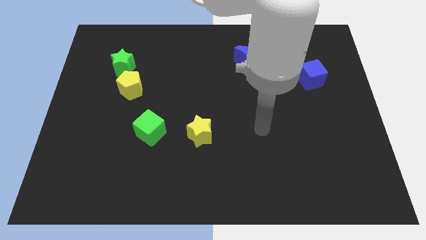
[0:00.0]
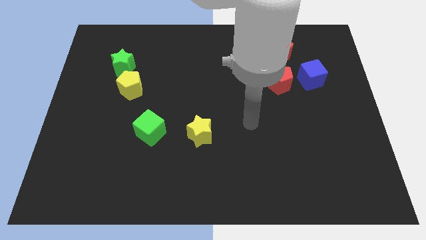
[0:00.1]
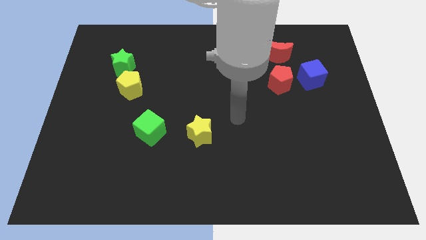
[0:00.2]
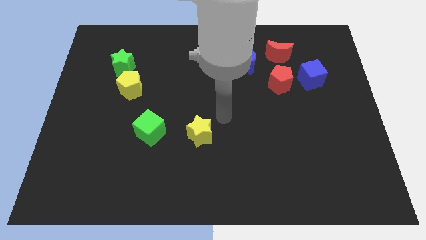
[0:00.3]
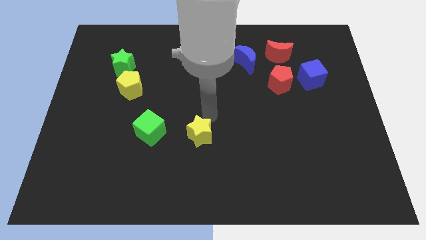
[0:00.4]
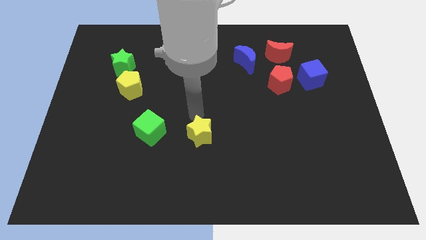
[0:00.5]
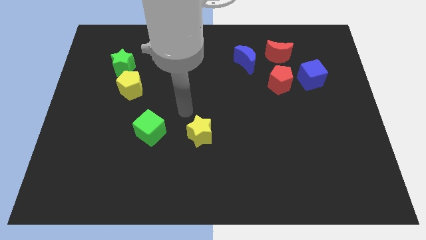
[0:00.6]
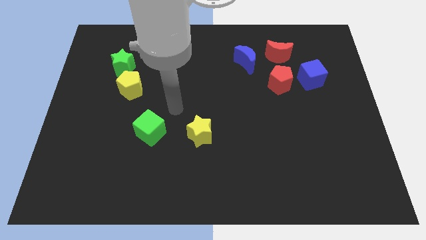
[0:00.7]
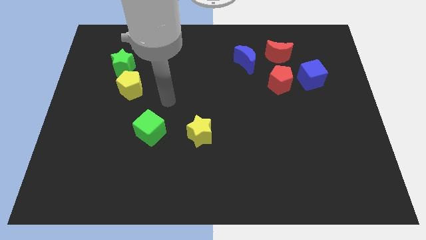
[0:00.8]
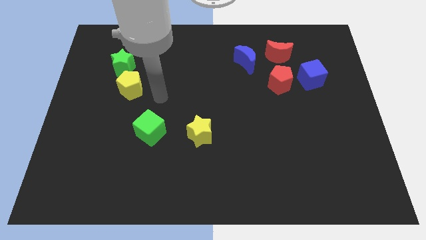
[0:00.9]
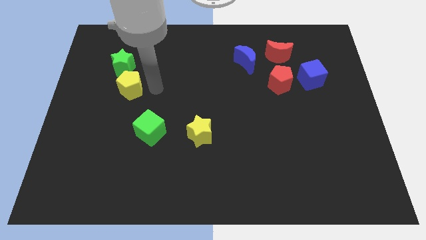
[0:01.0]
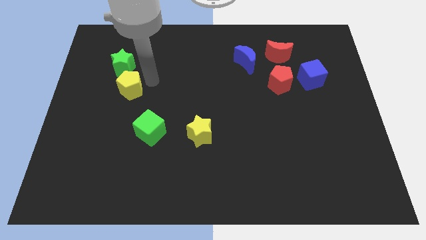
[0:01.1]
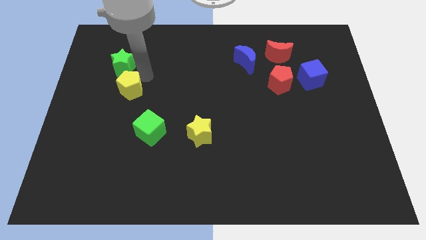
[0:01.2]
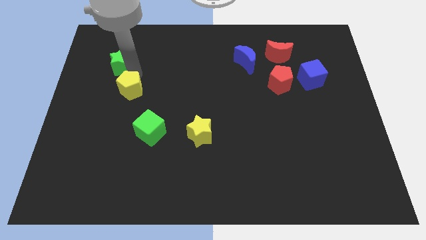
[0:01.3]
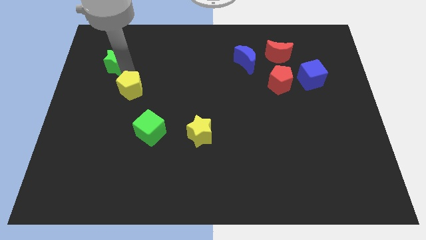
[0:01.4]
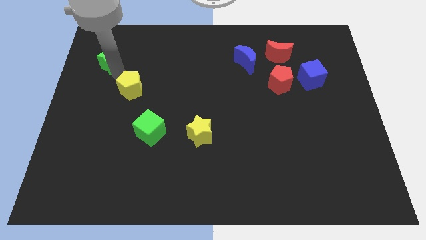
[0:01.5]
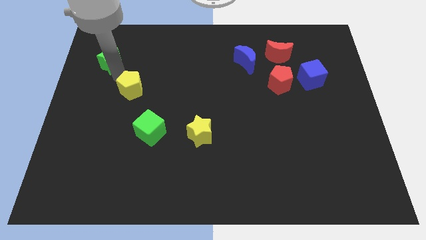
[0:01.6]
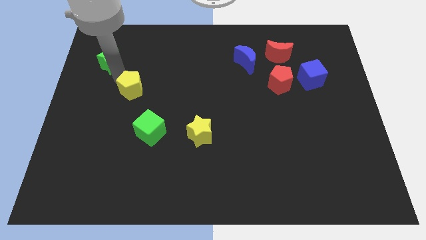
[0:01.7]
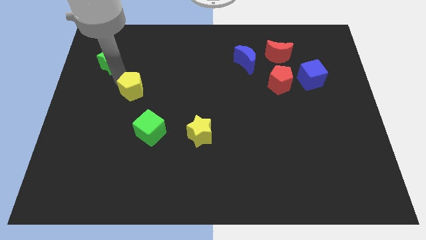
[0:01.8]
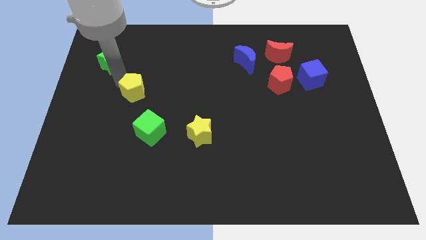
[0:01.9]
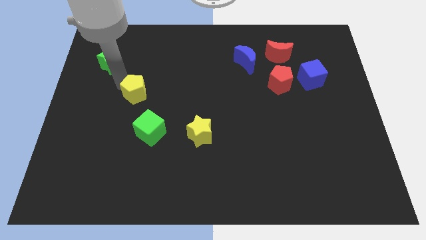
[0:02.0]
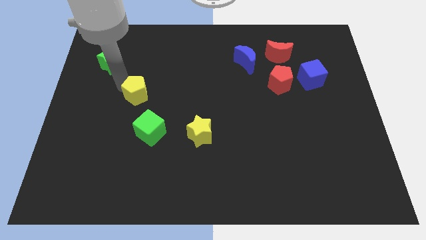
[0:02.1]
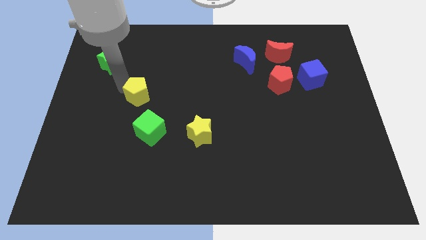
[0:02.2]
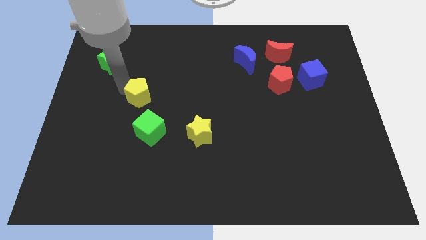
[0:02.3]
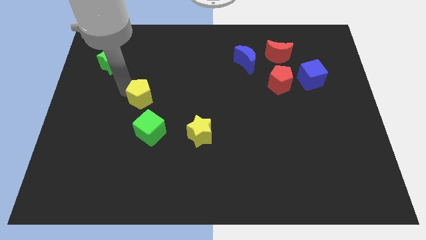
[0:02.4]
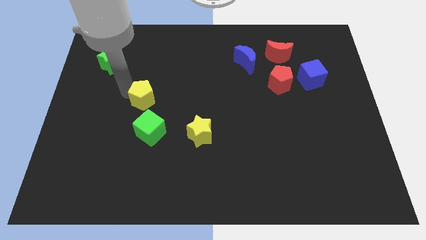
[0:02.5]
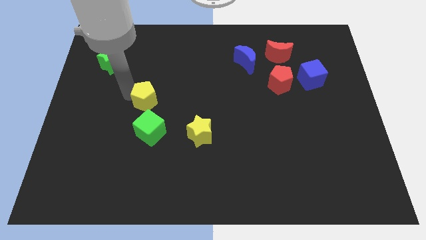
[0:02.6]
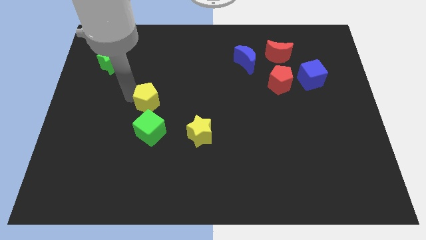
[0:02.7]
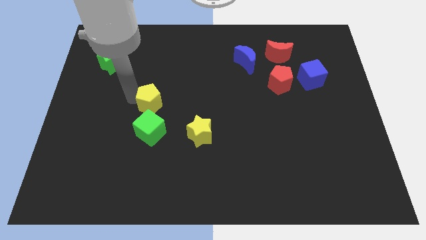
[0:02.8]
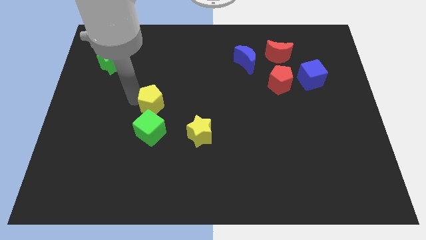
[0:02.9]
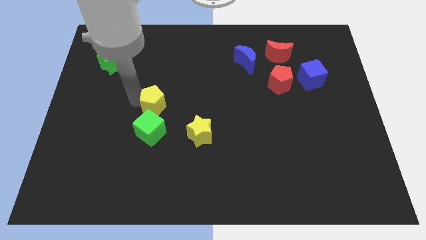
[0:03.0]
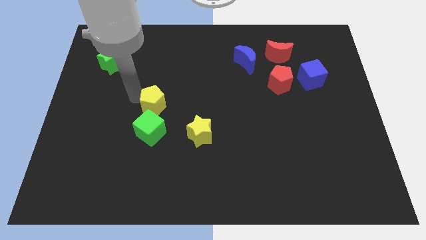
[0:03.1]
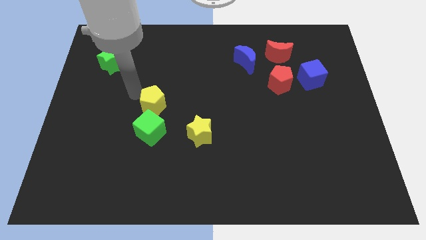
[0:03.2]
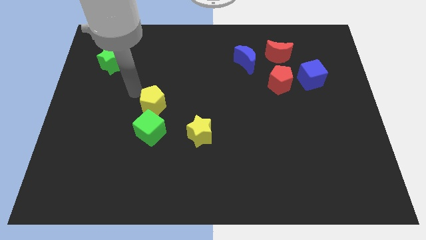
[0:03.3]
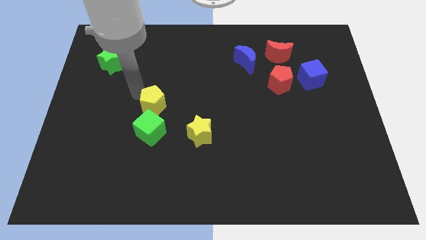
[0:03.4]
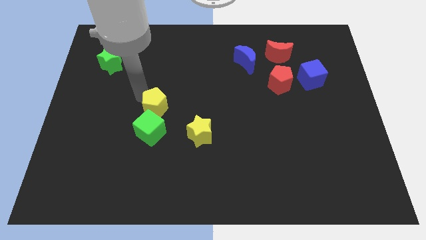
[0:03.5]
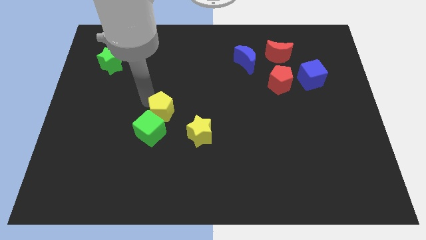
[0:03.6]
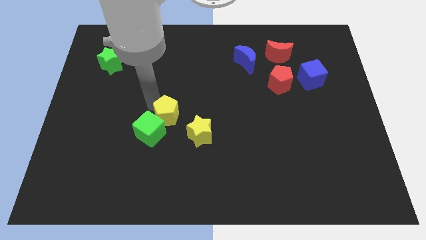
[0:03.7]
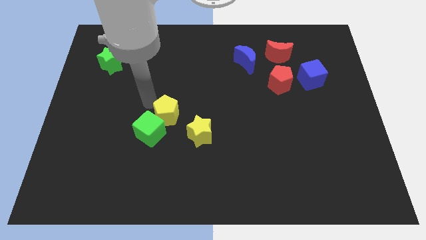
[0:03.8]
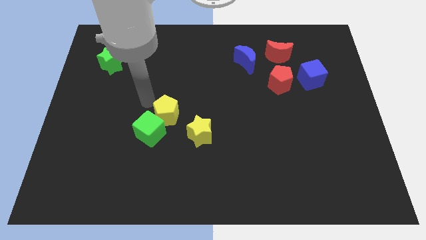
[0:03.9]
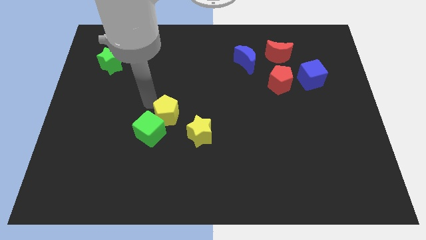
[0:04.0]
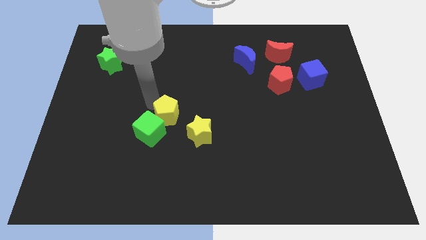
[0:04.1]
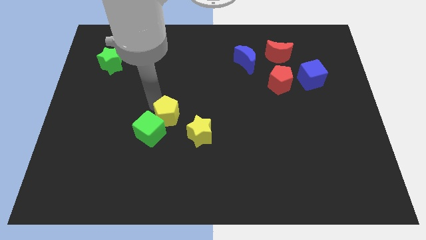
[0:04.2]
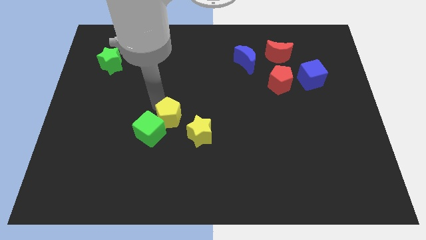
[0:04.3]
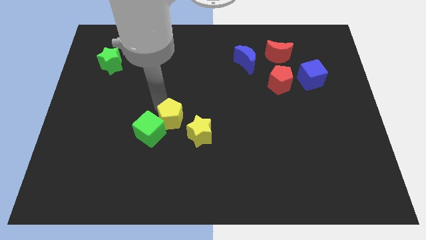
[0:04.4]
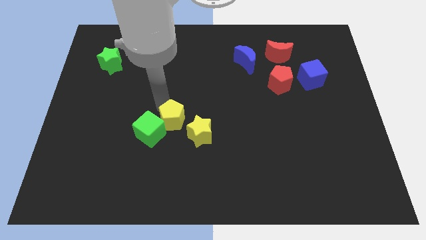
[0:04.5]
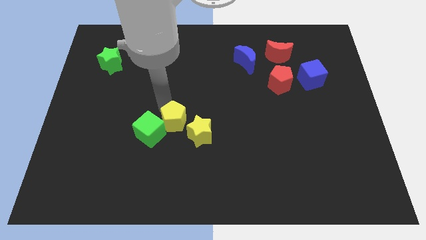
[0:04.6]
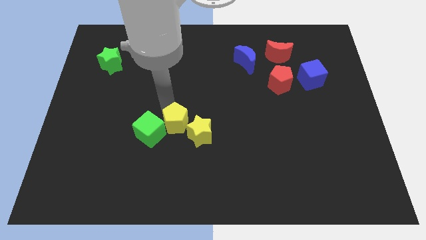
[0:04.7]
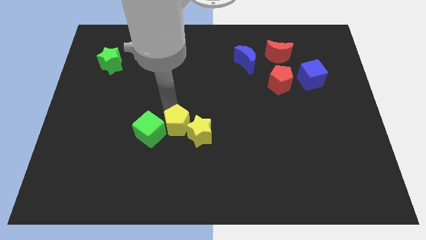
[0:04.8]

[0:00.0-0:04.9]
put the yellow pentagon to the yellow star

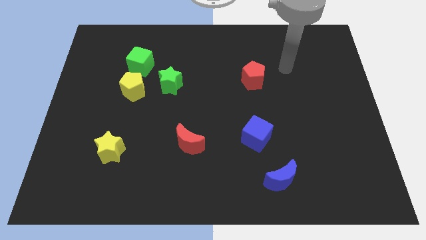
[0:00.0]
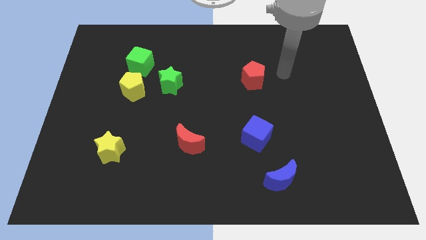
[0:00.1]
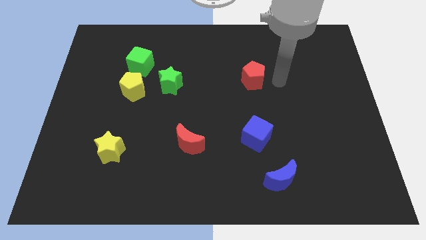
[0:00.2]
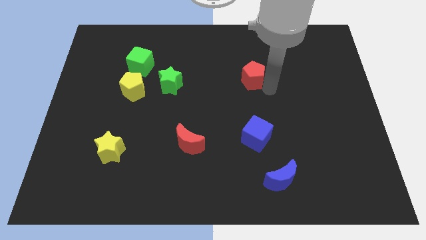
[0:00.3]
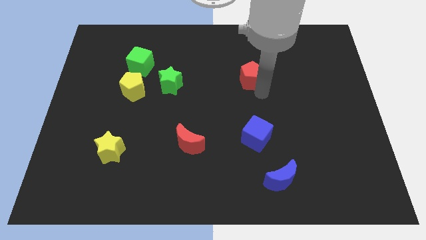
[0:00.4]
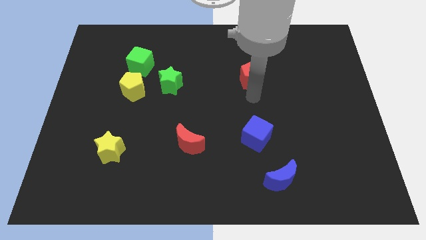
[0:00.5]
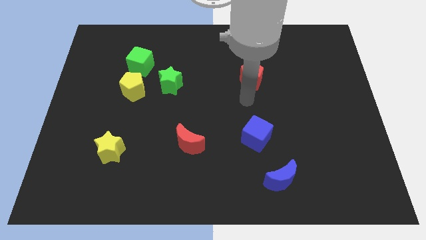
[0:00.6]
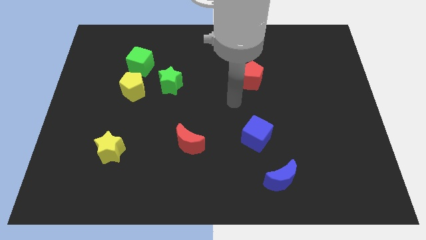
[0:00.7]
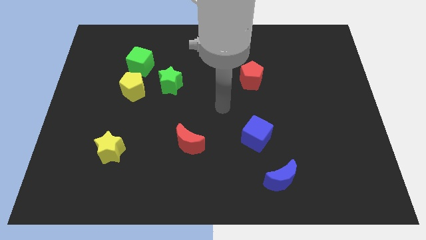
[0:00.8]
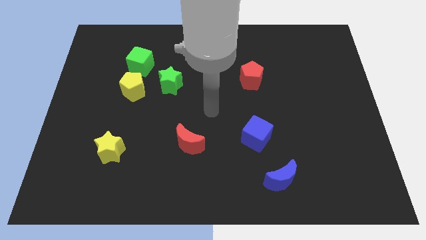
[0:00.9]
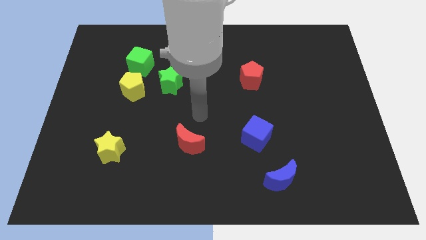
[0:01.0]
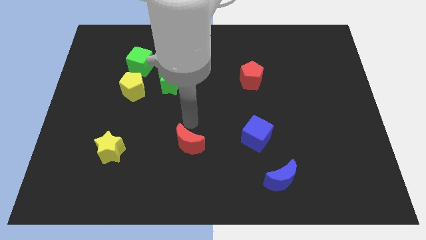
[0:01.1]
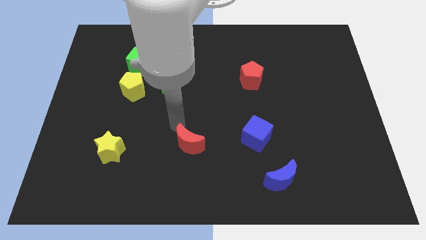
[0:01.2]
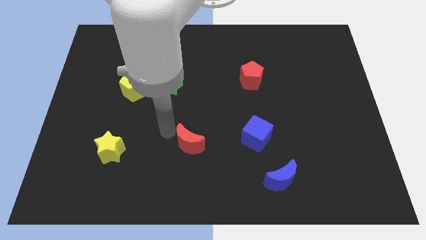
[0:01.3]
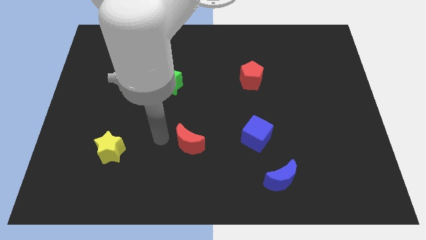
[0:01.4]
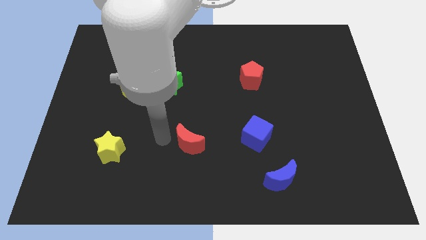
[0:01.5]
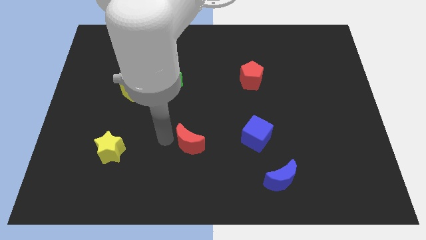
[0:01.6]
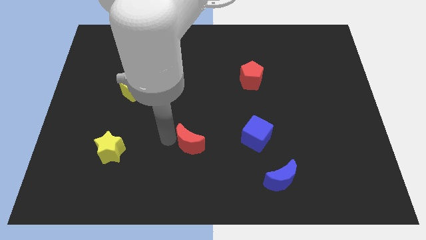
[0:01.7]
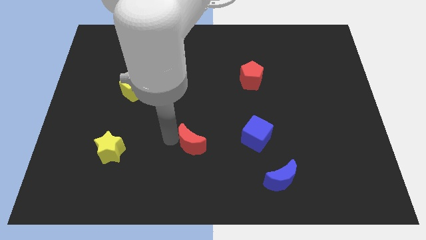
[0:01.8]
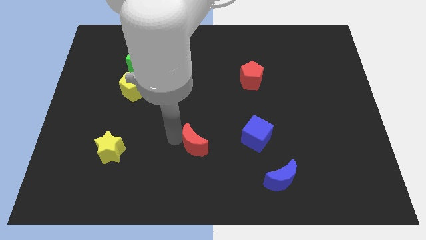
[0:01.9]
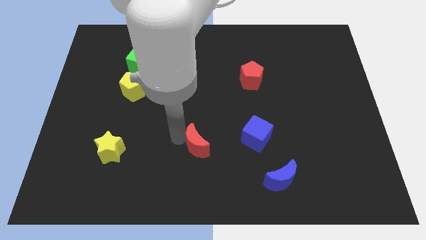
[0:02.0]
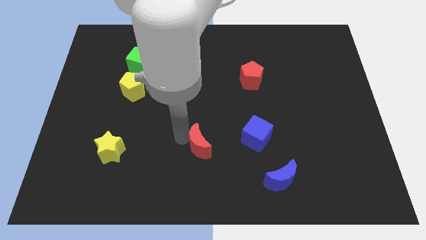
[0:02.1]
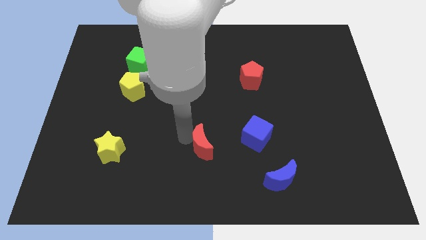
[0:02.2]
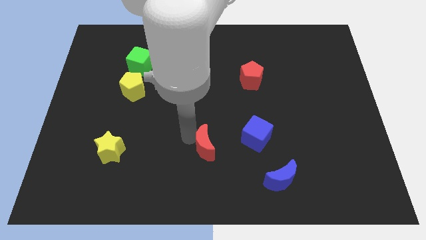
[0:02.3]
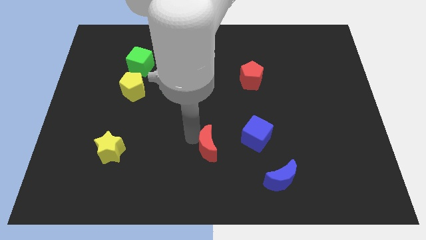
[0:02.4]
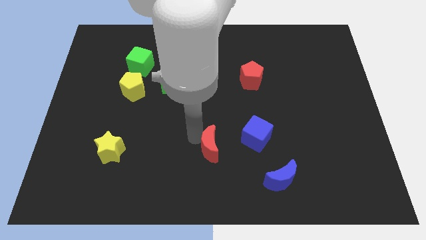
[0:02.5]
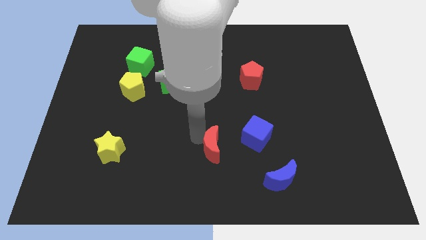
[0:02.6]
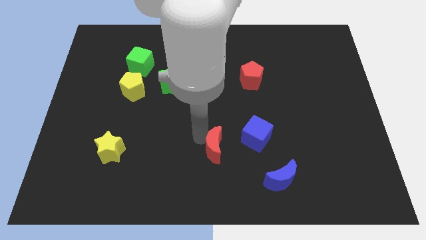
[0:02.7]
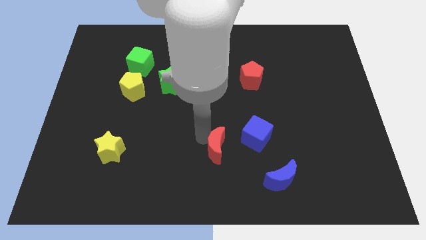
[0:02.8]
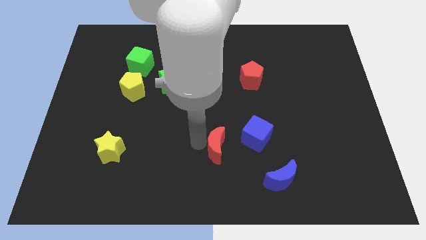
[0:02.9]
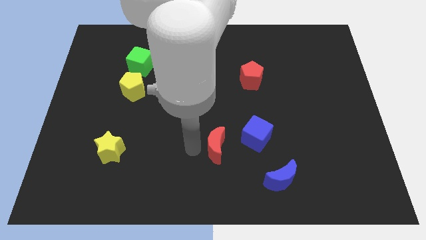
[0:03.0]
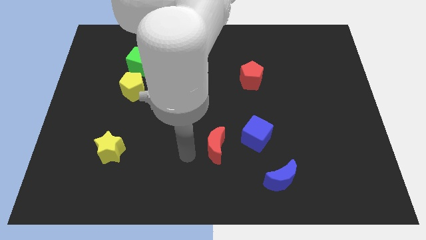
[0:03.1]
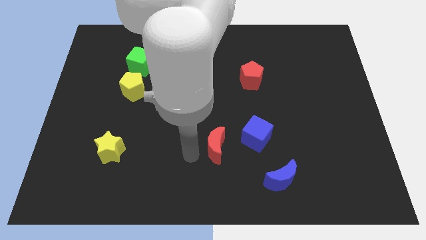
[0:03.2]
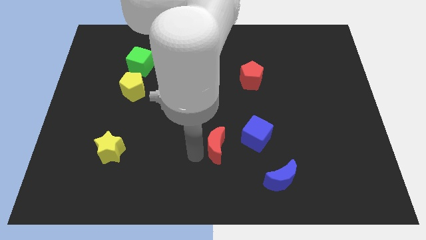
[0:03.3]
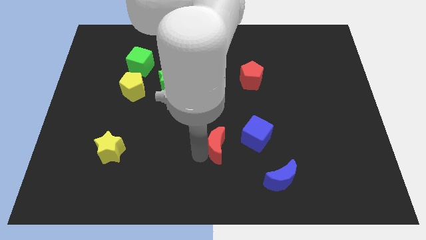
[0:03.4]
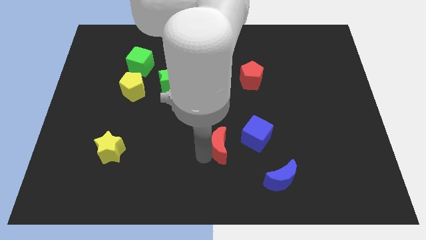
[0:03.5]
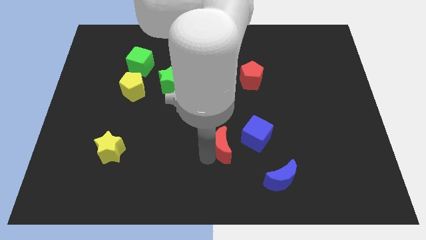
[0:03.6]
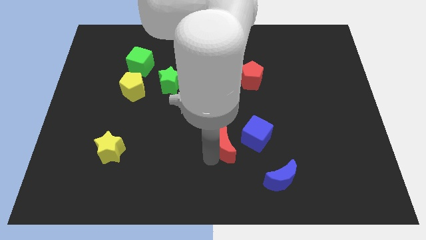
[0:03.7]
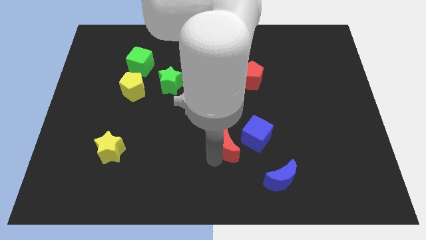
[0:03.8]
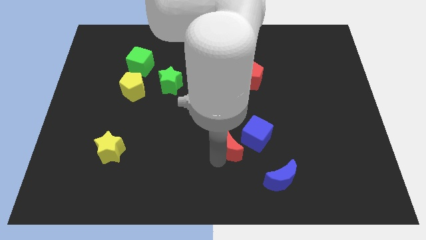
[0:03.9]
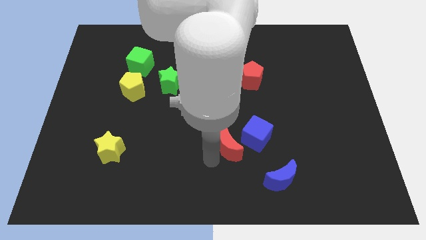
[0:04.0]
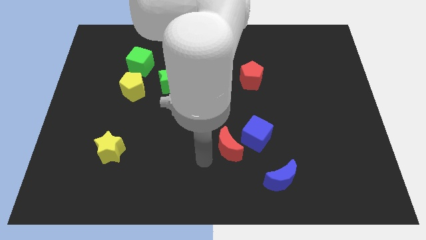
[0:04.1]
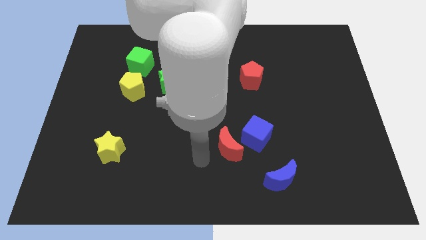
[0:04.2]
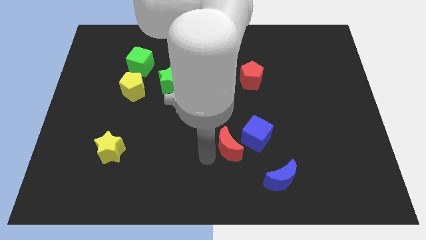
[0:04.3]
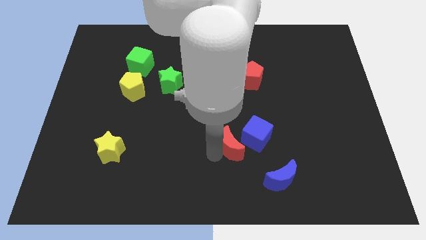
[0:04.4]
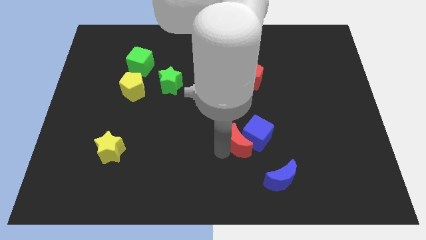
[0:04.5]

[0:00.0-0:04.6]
move the red moon to the blue cube
